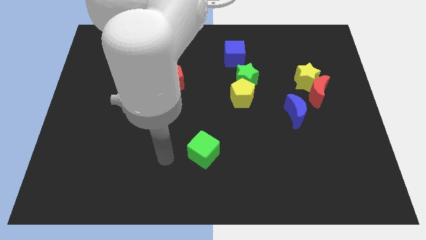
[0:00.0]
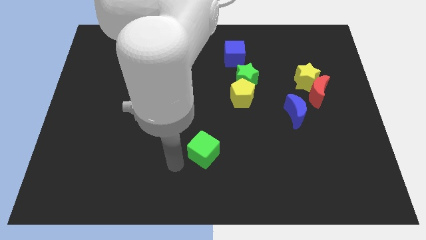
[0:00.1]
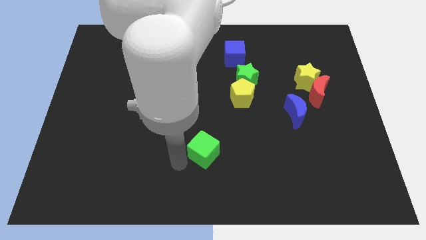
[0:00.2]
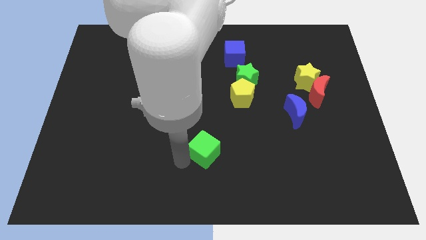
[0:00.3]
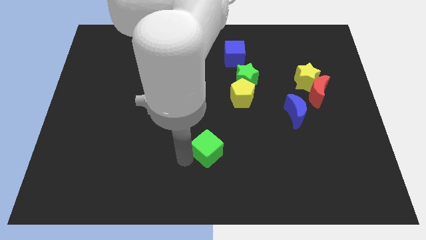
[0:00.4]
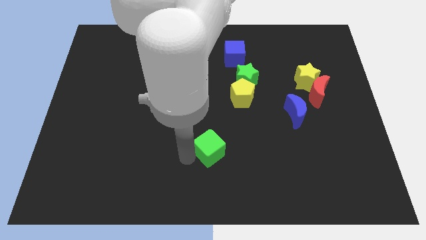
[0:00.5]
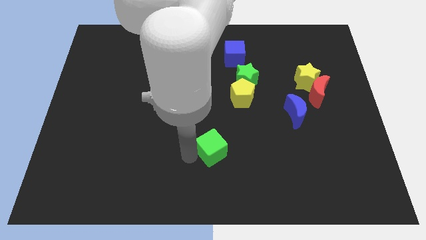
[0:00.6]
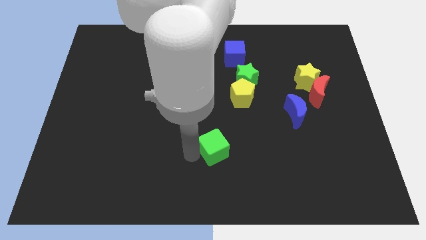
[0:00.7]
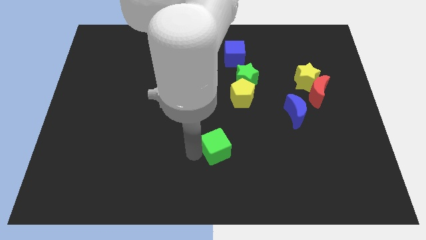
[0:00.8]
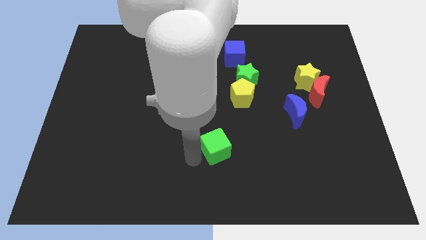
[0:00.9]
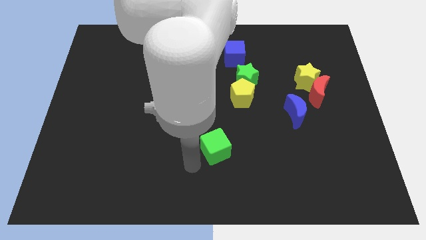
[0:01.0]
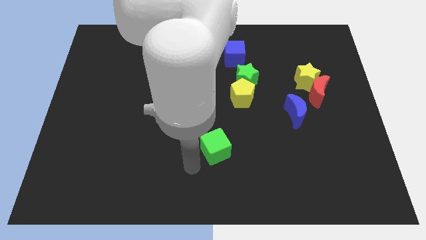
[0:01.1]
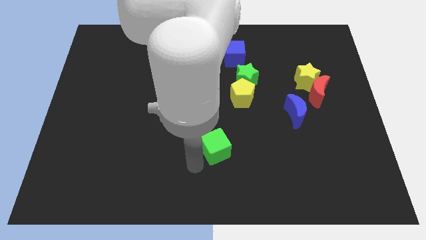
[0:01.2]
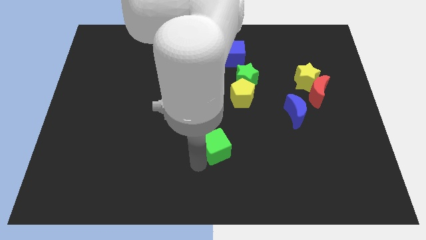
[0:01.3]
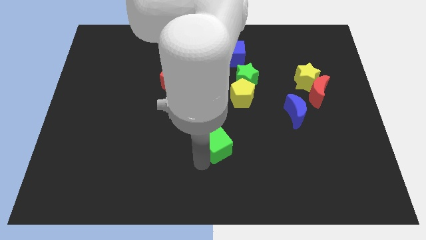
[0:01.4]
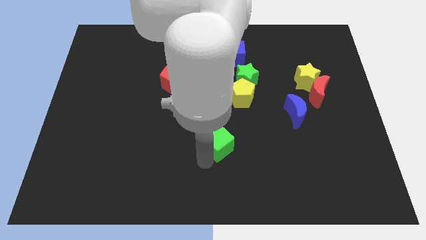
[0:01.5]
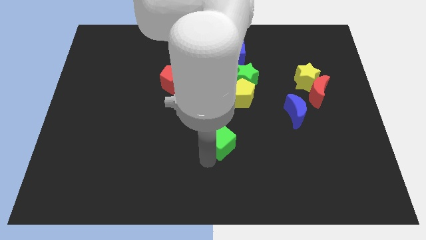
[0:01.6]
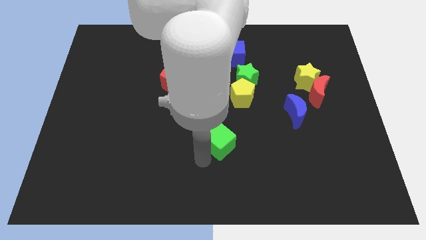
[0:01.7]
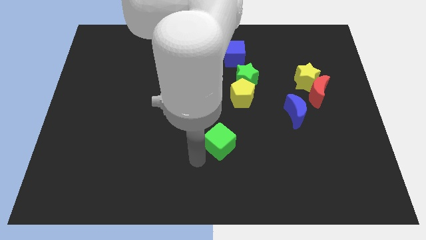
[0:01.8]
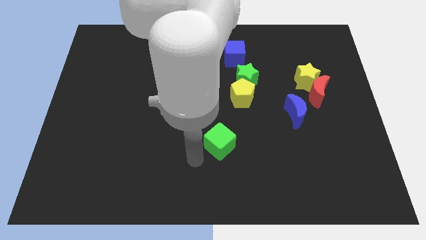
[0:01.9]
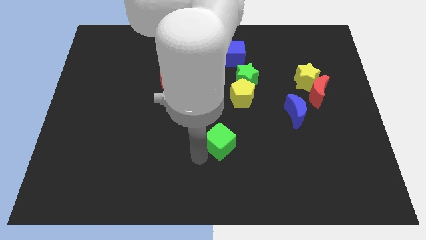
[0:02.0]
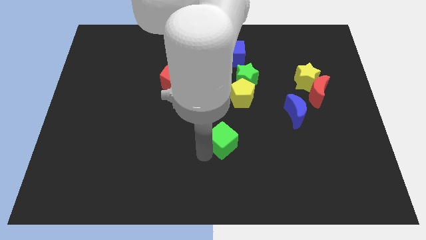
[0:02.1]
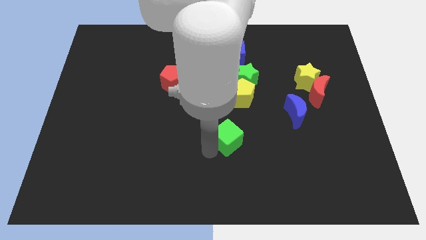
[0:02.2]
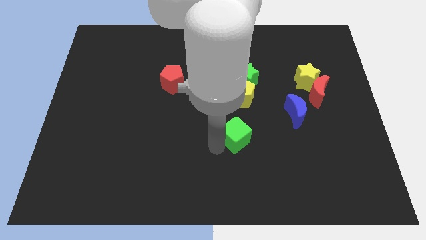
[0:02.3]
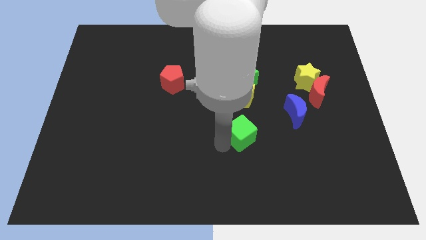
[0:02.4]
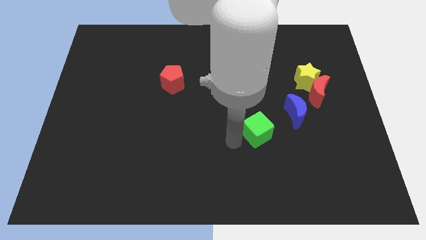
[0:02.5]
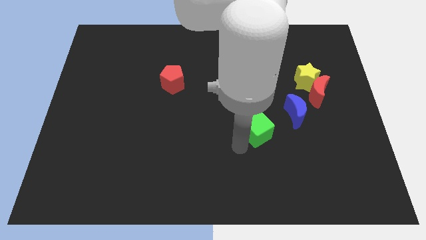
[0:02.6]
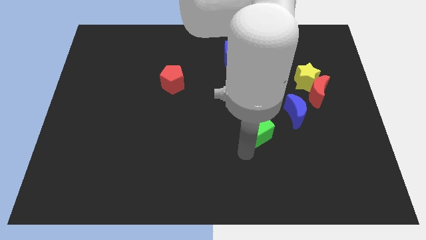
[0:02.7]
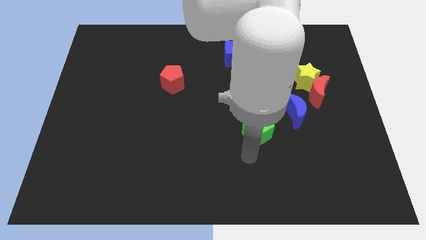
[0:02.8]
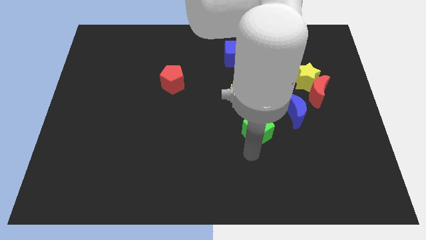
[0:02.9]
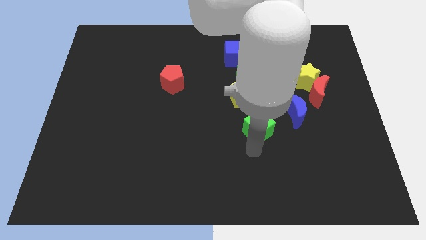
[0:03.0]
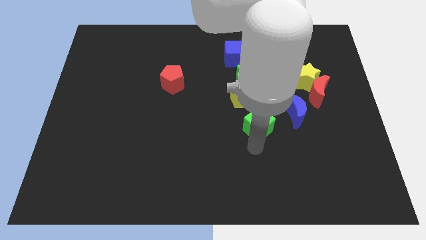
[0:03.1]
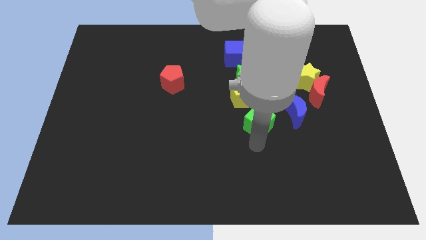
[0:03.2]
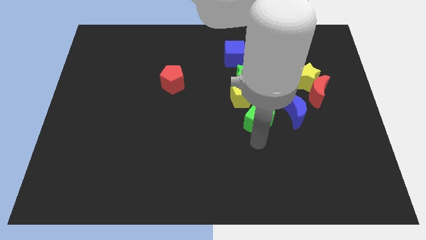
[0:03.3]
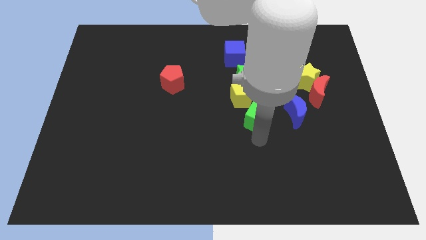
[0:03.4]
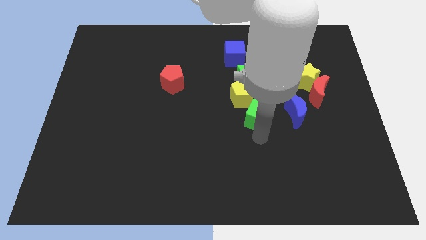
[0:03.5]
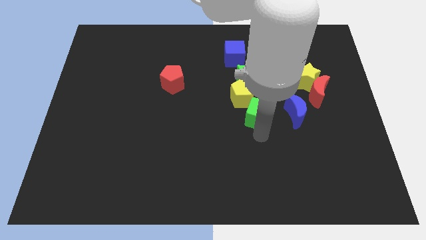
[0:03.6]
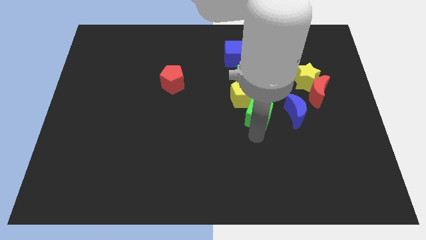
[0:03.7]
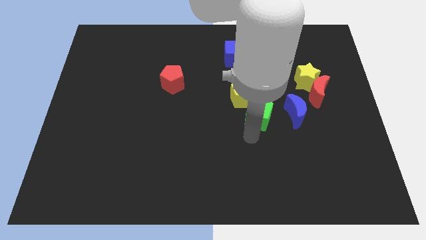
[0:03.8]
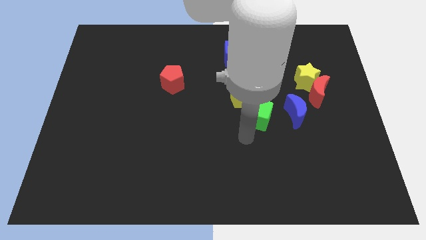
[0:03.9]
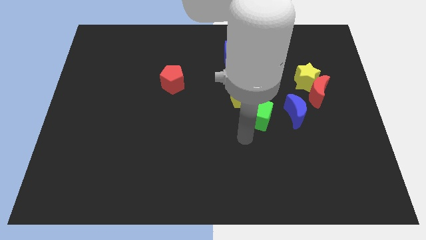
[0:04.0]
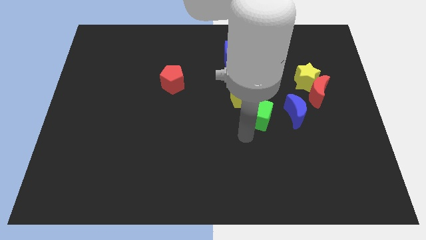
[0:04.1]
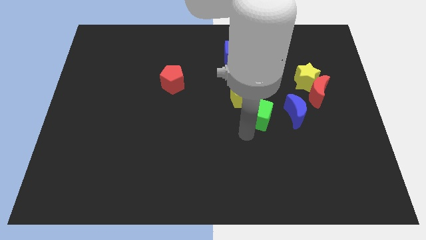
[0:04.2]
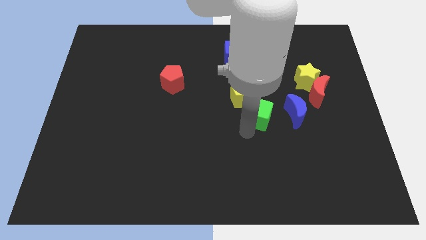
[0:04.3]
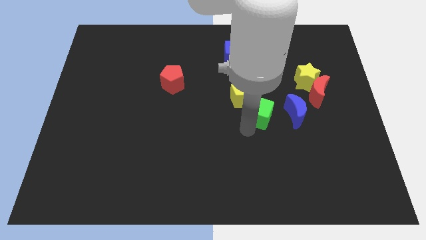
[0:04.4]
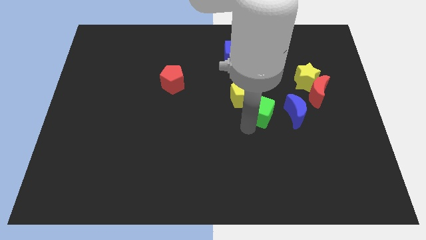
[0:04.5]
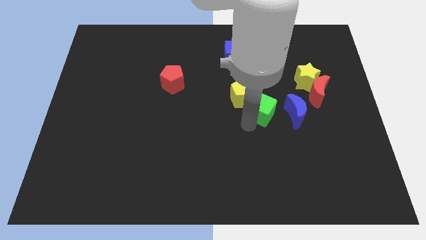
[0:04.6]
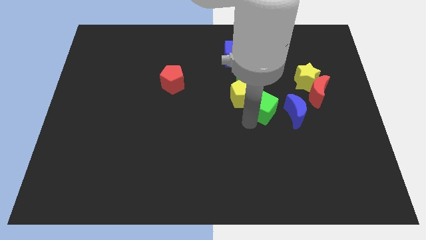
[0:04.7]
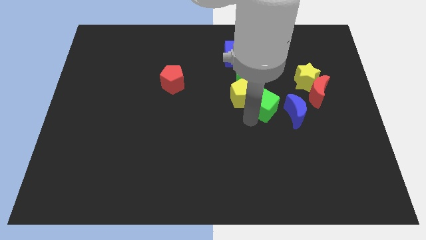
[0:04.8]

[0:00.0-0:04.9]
slide the green cube to the left of the red moon

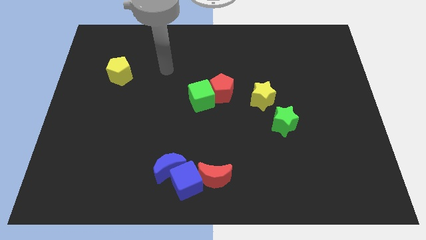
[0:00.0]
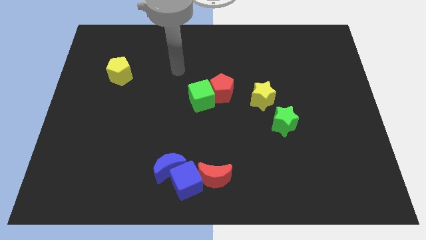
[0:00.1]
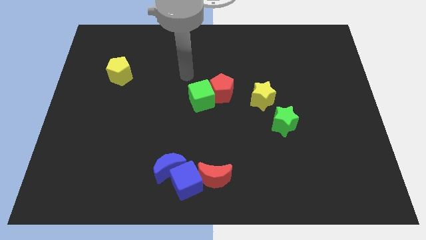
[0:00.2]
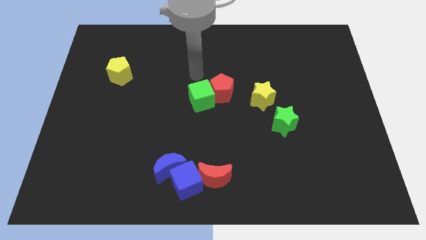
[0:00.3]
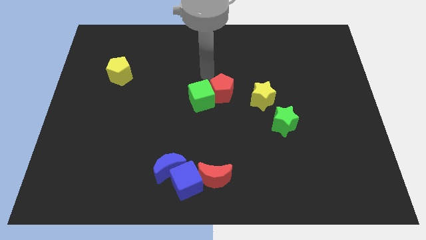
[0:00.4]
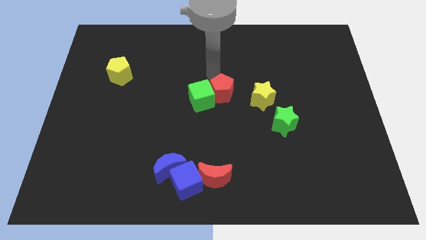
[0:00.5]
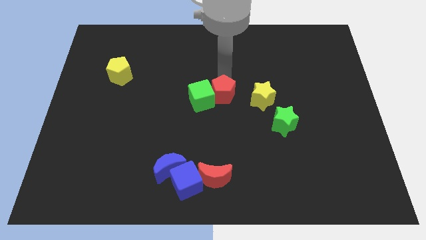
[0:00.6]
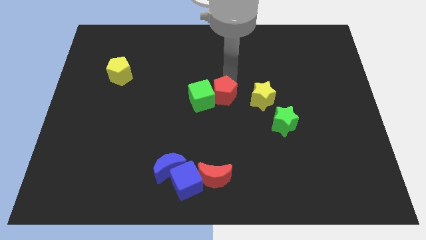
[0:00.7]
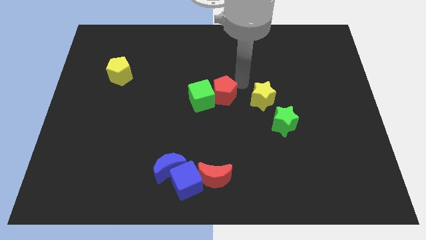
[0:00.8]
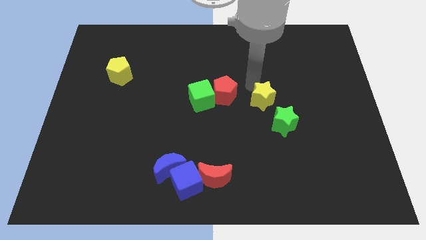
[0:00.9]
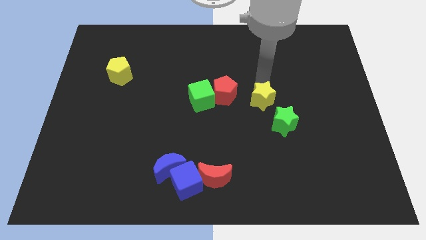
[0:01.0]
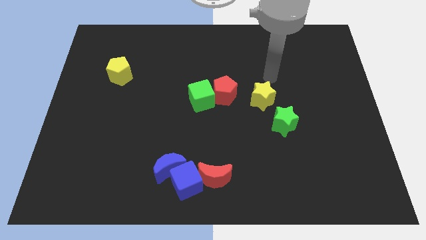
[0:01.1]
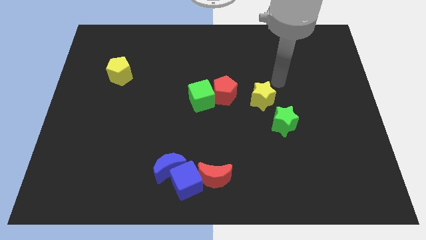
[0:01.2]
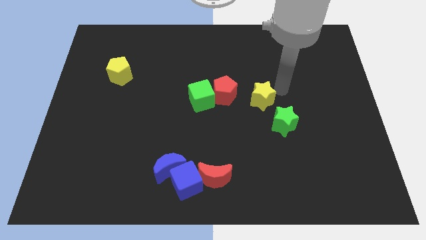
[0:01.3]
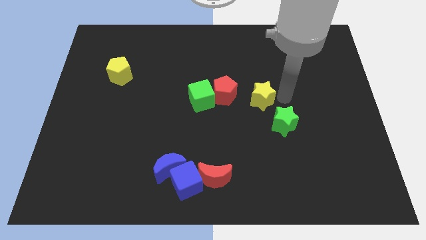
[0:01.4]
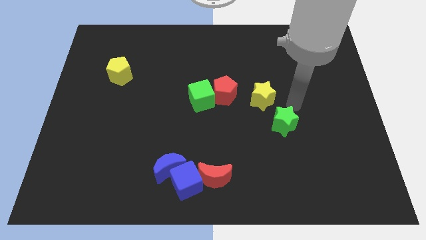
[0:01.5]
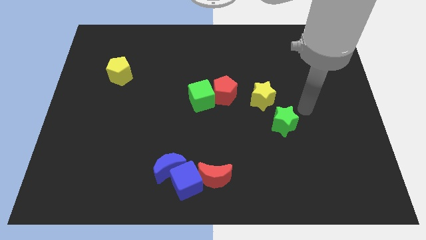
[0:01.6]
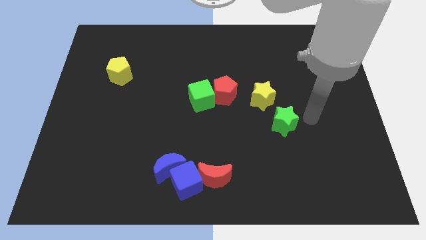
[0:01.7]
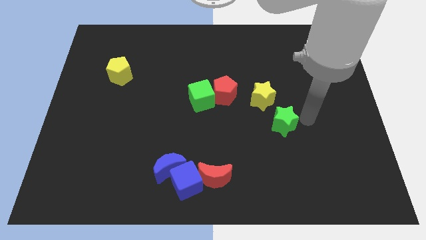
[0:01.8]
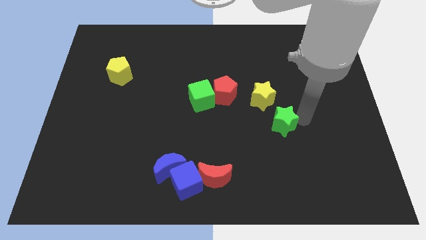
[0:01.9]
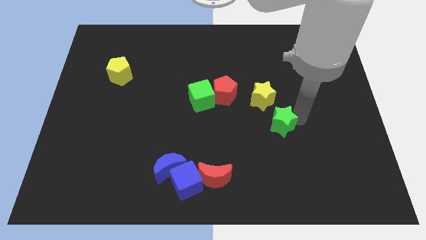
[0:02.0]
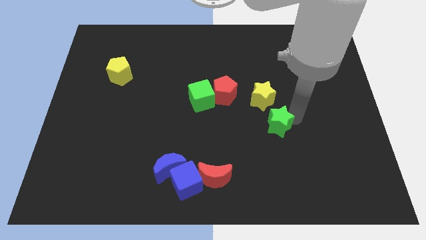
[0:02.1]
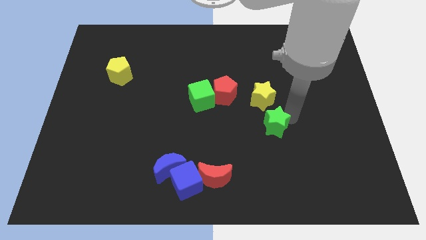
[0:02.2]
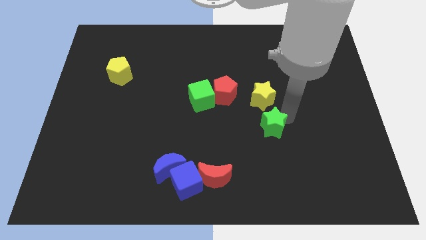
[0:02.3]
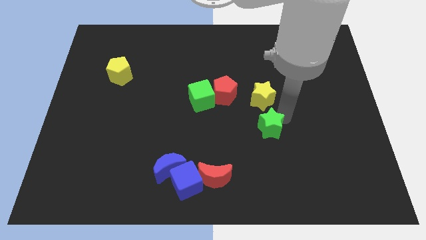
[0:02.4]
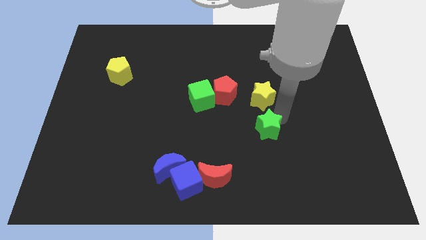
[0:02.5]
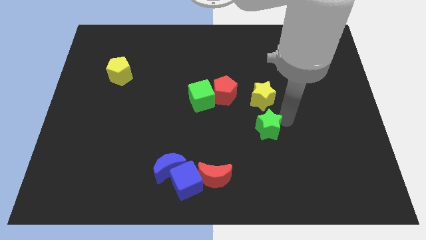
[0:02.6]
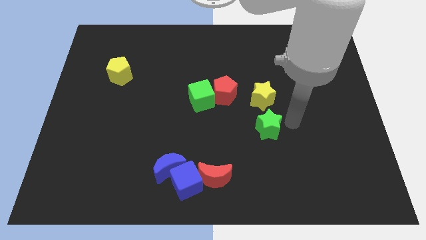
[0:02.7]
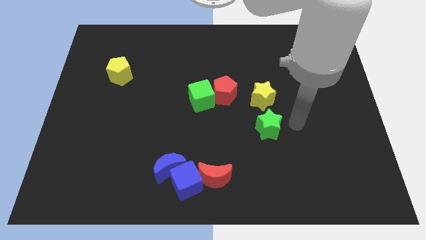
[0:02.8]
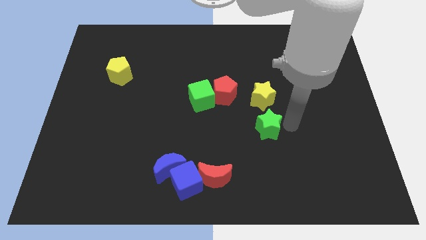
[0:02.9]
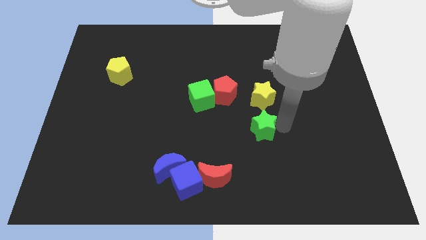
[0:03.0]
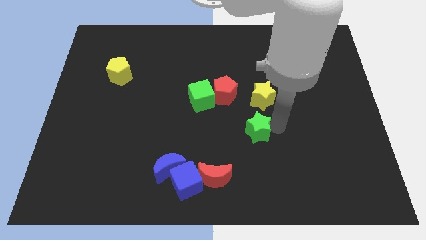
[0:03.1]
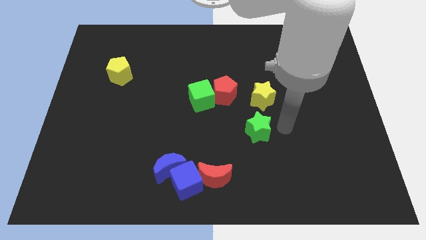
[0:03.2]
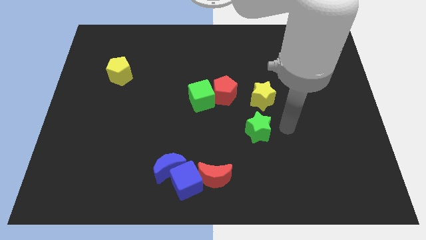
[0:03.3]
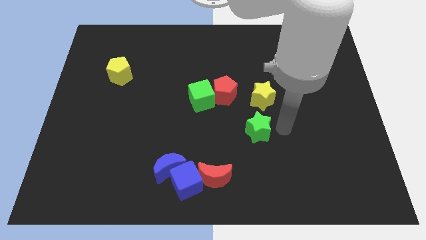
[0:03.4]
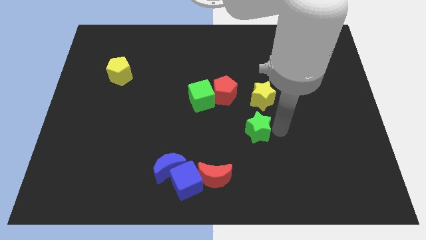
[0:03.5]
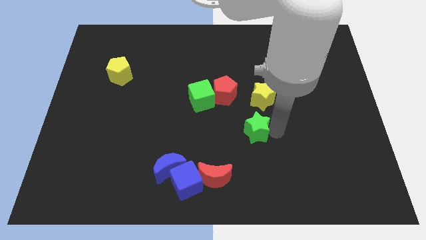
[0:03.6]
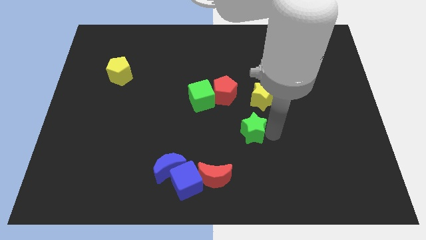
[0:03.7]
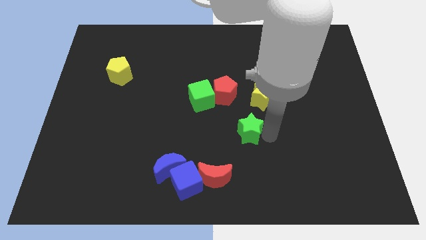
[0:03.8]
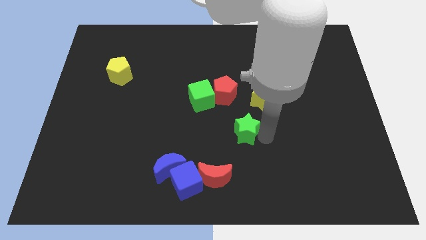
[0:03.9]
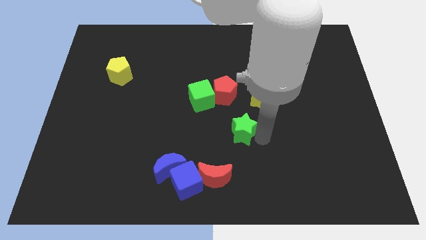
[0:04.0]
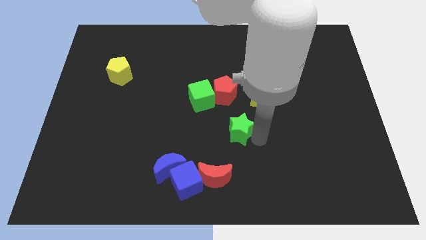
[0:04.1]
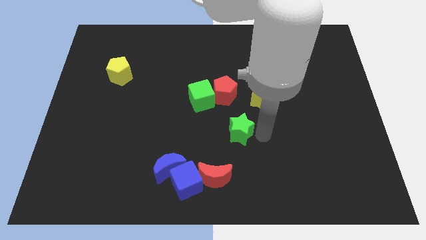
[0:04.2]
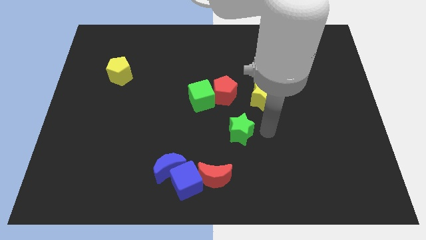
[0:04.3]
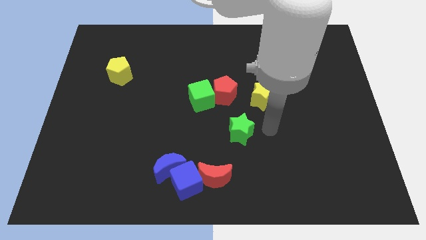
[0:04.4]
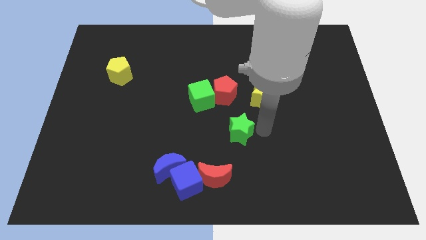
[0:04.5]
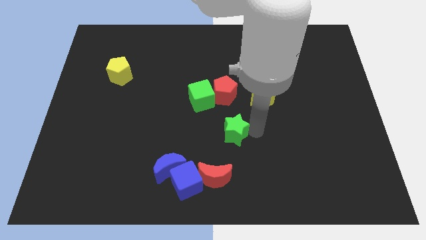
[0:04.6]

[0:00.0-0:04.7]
move the green star above the red moon
